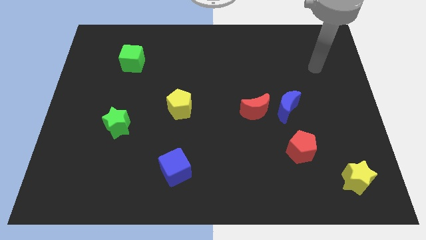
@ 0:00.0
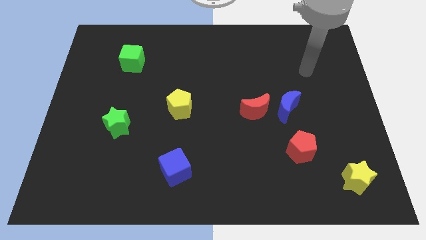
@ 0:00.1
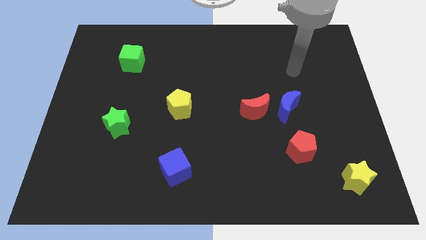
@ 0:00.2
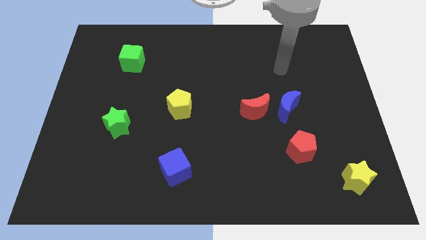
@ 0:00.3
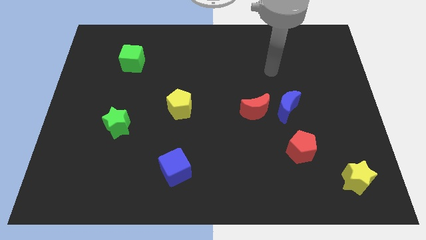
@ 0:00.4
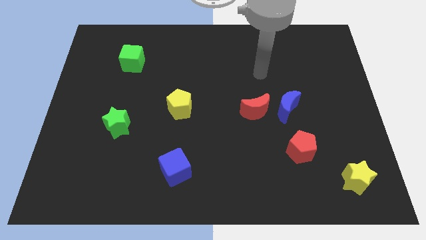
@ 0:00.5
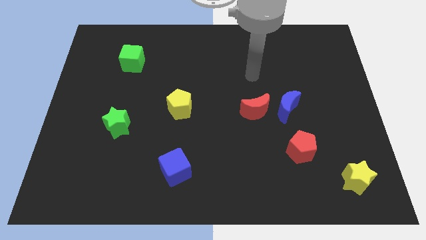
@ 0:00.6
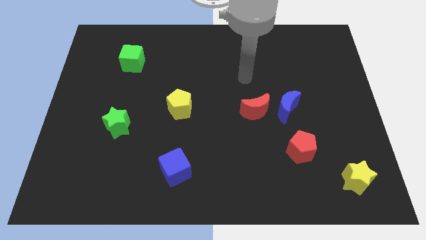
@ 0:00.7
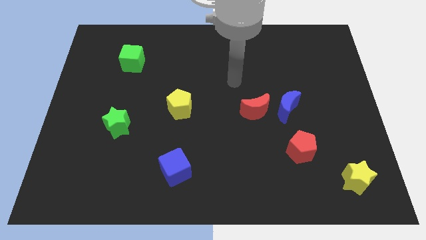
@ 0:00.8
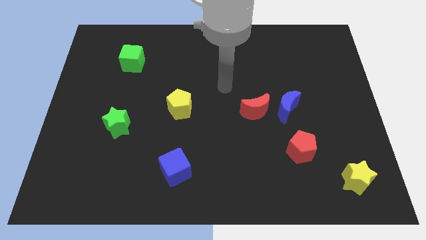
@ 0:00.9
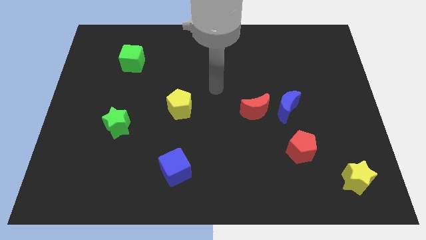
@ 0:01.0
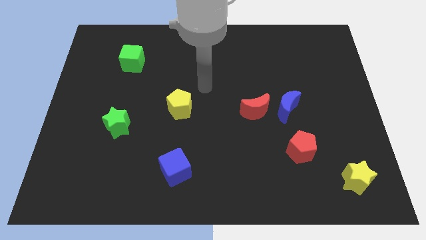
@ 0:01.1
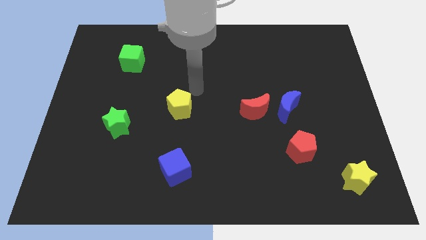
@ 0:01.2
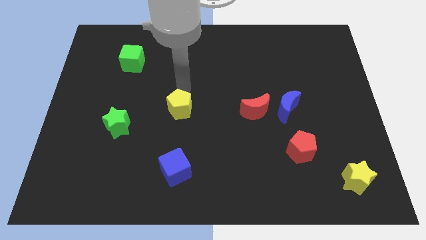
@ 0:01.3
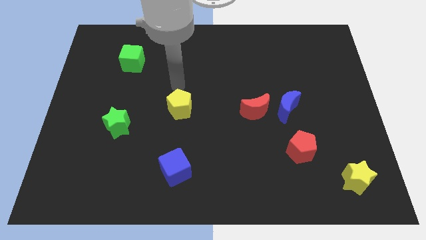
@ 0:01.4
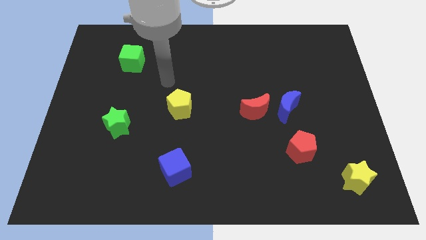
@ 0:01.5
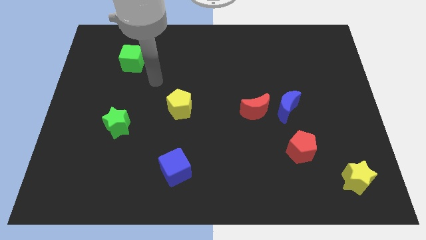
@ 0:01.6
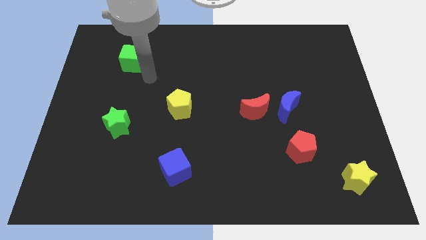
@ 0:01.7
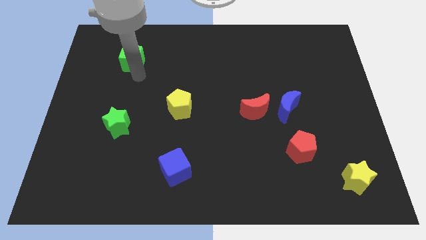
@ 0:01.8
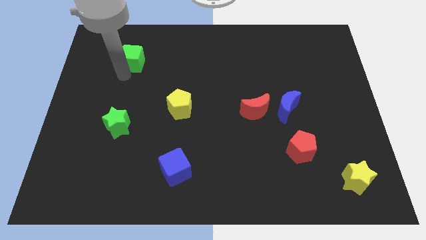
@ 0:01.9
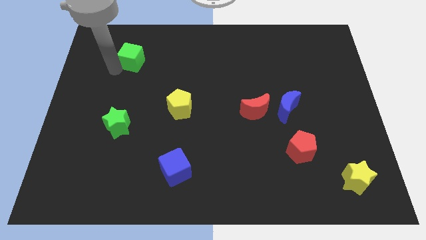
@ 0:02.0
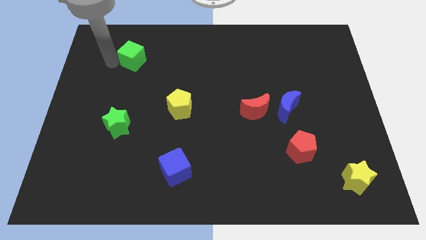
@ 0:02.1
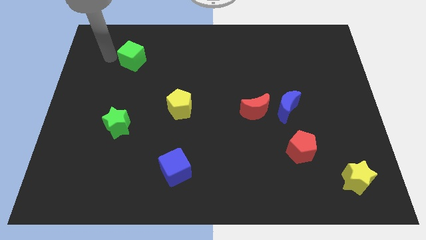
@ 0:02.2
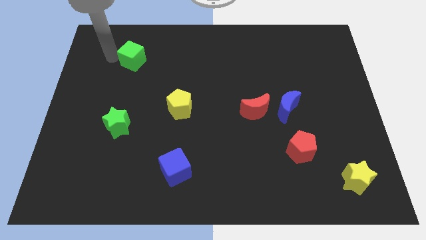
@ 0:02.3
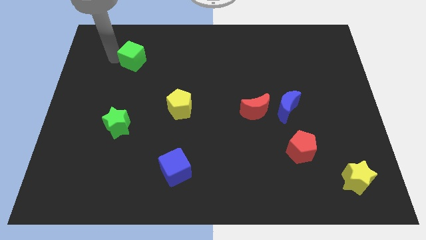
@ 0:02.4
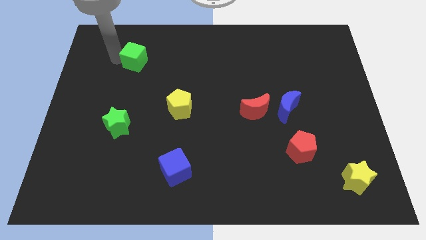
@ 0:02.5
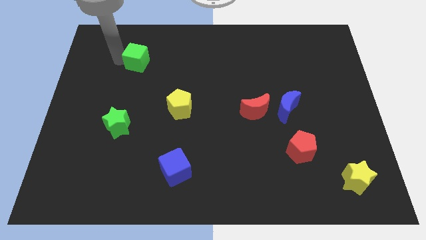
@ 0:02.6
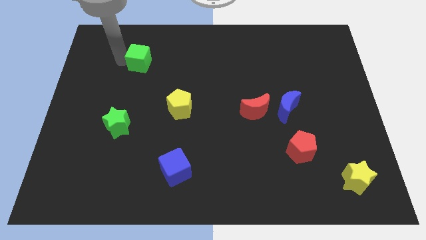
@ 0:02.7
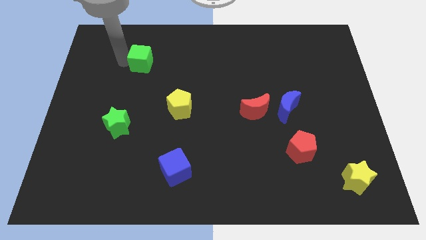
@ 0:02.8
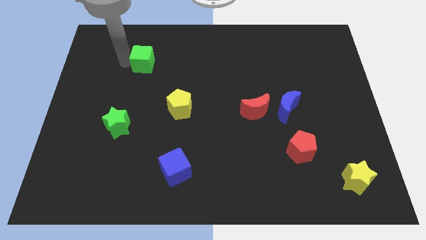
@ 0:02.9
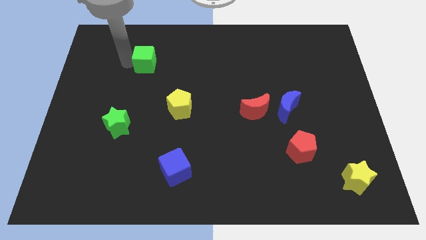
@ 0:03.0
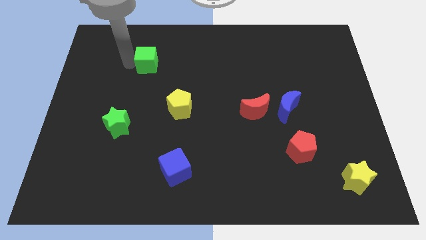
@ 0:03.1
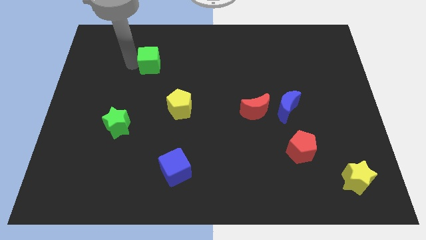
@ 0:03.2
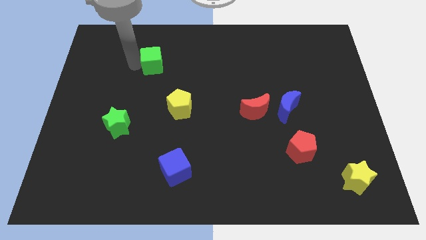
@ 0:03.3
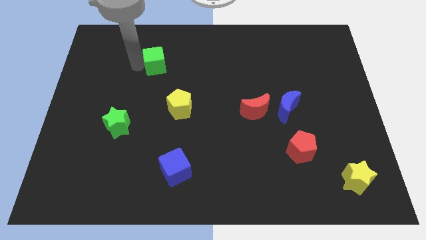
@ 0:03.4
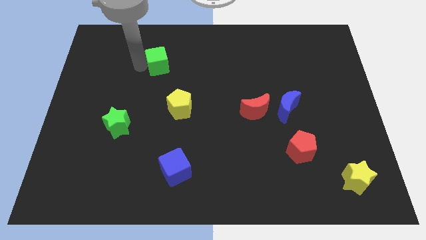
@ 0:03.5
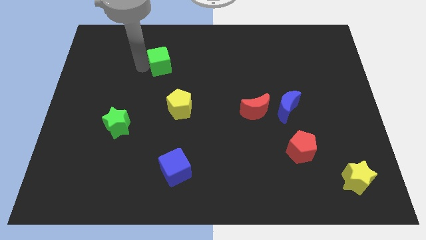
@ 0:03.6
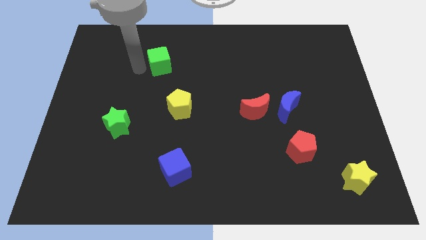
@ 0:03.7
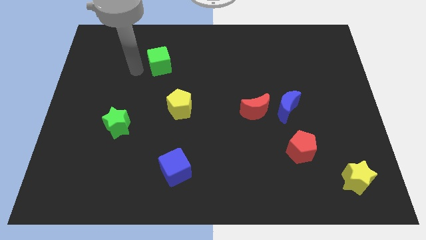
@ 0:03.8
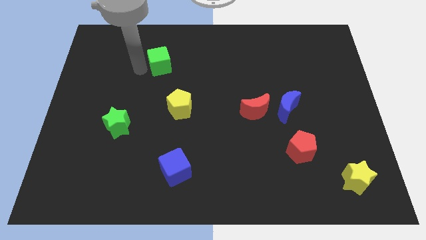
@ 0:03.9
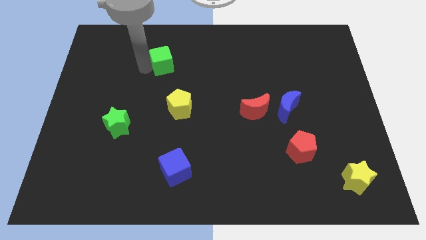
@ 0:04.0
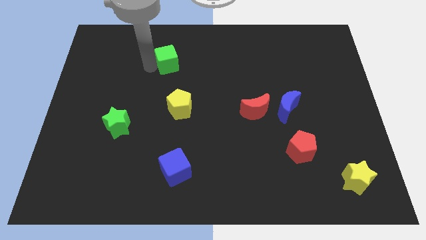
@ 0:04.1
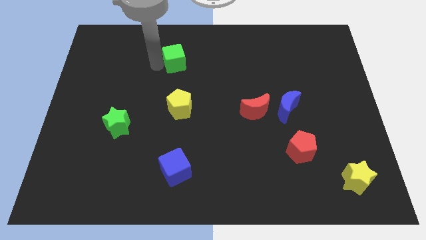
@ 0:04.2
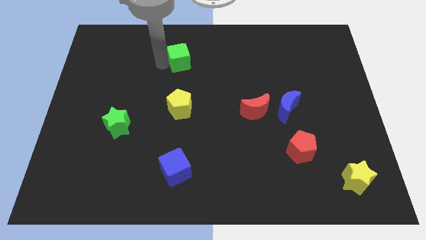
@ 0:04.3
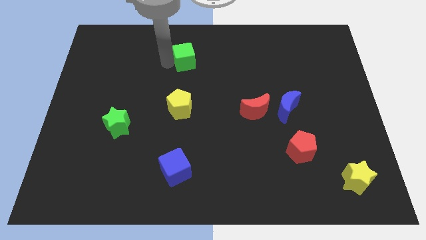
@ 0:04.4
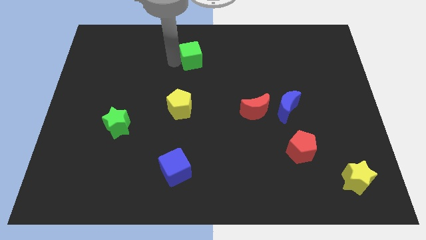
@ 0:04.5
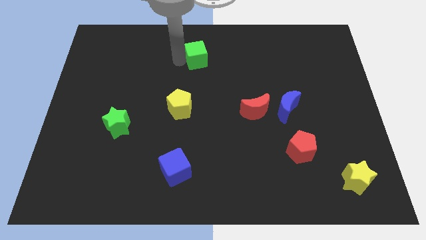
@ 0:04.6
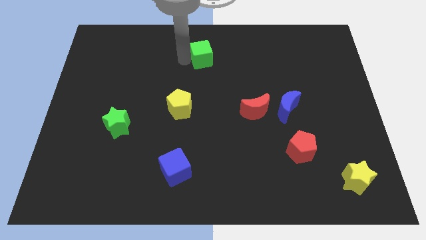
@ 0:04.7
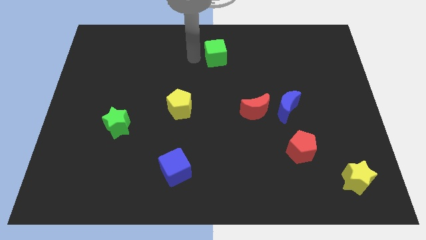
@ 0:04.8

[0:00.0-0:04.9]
move the green cube to the right

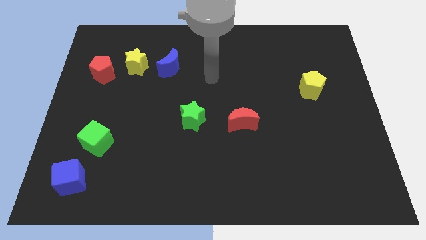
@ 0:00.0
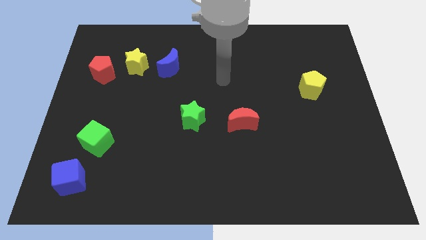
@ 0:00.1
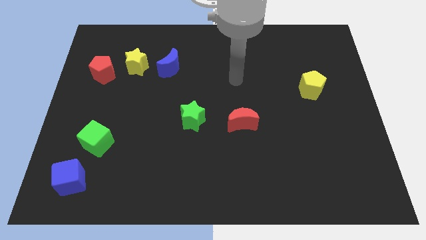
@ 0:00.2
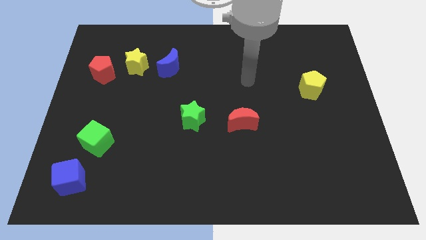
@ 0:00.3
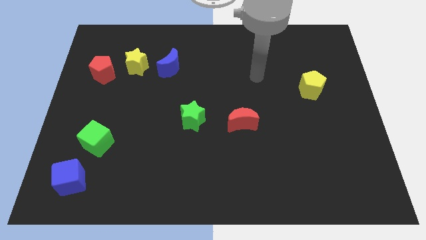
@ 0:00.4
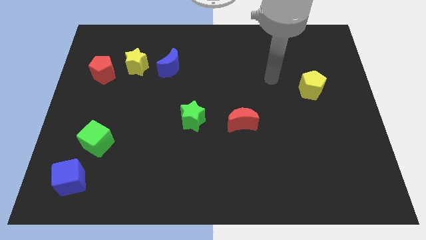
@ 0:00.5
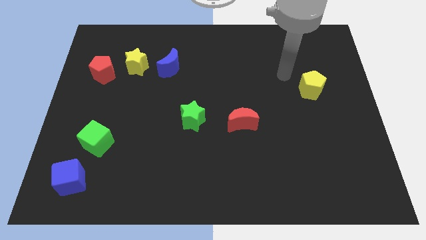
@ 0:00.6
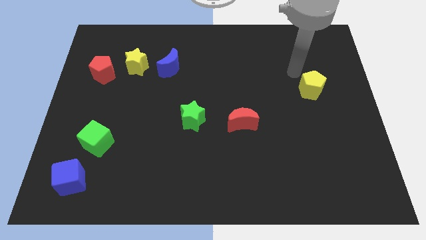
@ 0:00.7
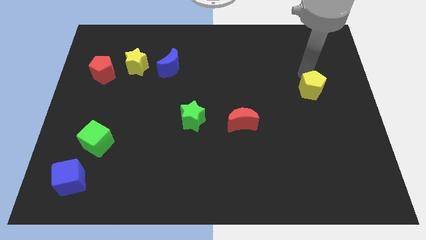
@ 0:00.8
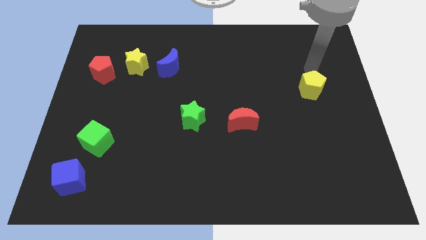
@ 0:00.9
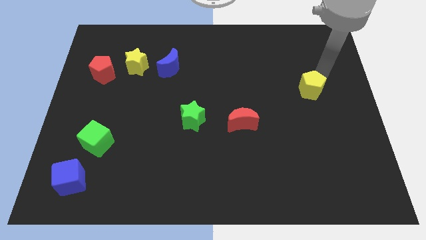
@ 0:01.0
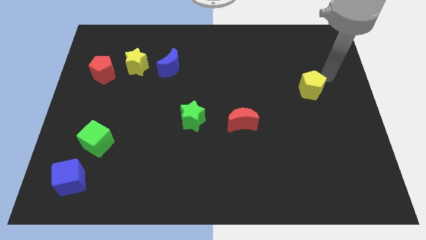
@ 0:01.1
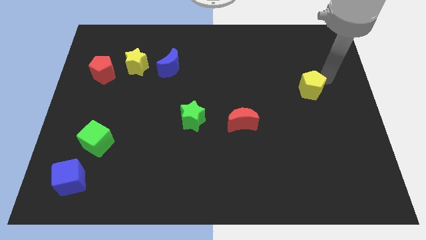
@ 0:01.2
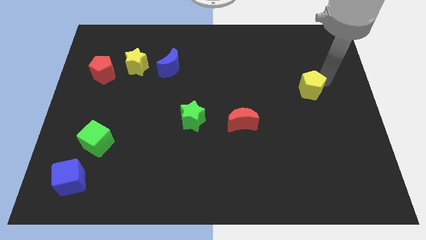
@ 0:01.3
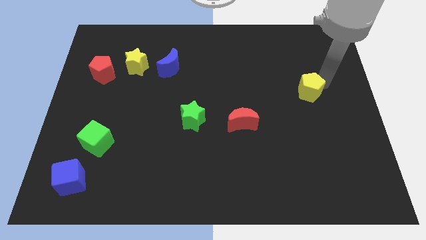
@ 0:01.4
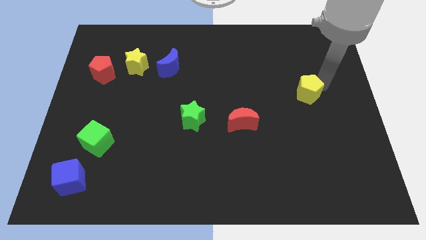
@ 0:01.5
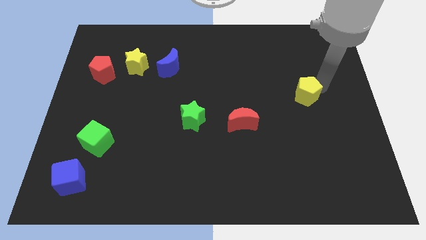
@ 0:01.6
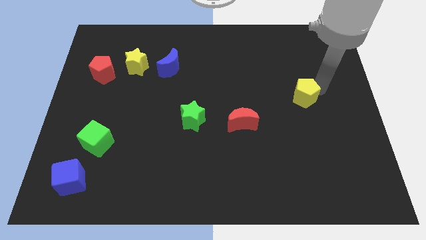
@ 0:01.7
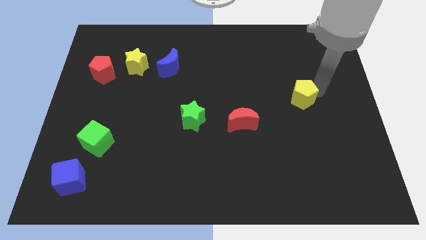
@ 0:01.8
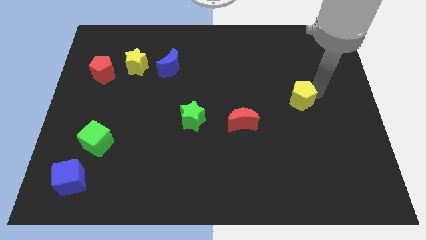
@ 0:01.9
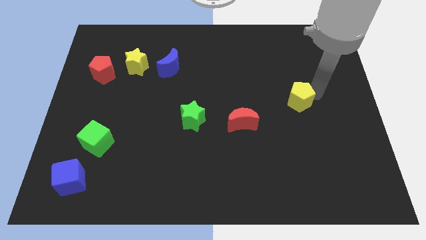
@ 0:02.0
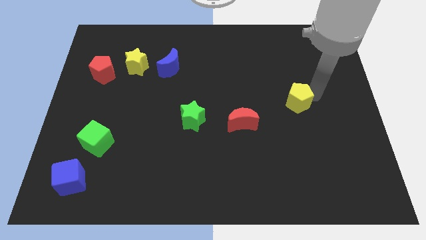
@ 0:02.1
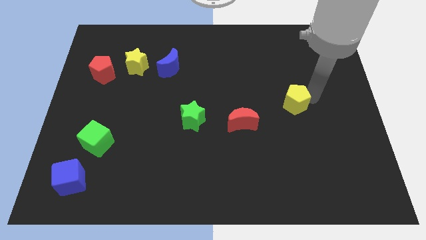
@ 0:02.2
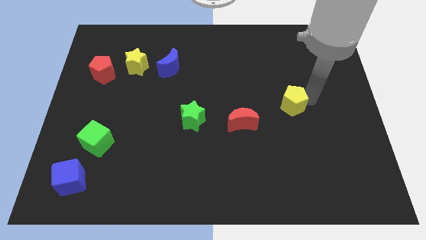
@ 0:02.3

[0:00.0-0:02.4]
slide the yellow pentagon slightly diagonally down and to the left

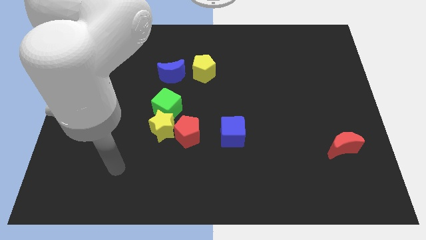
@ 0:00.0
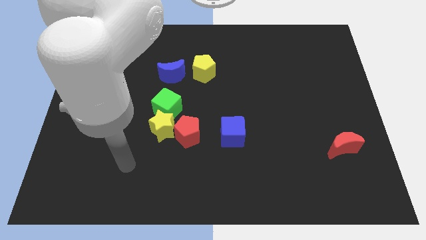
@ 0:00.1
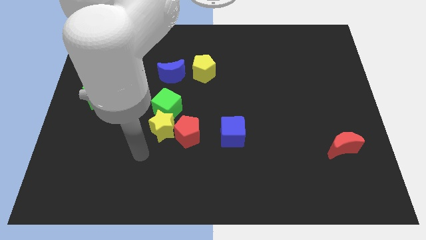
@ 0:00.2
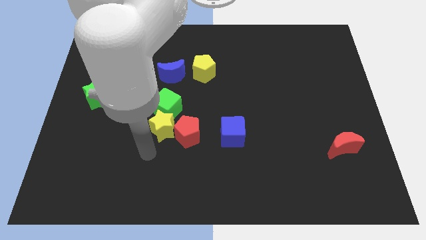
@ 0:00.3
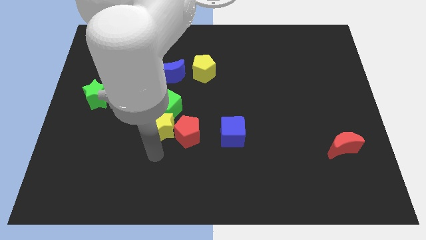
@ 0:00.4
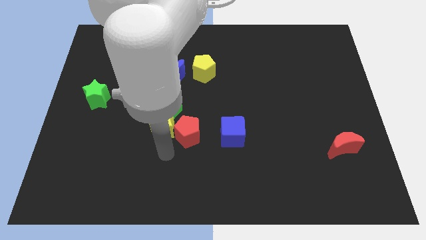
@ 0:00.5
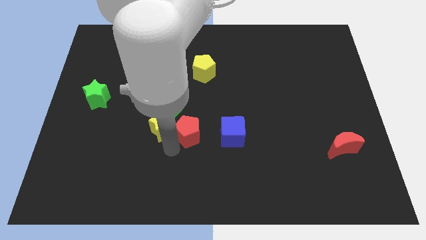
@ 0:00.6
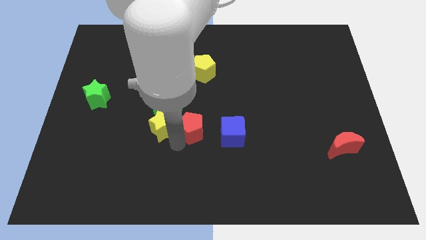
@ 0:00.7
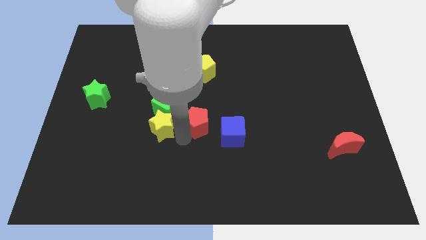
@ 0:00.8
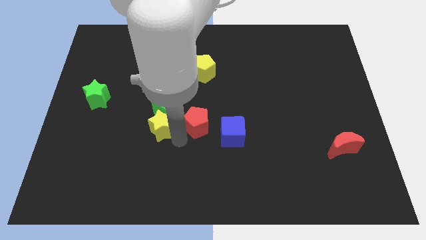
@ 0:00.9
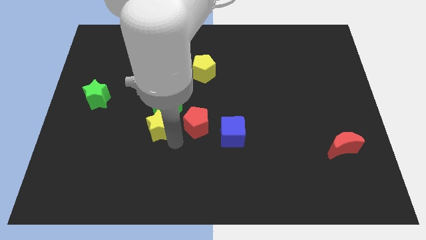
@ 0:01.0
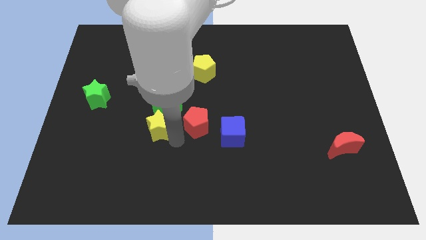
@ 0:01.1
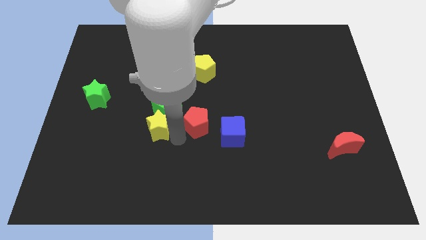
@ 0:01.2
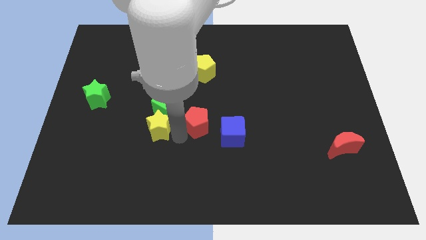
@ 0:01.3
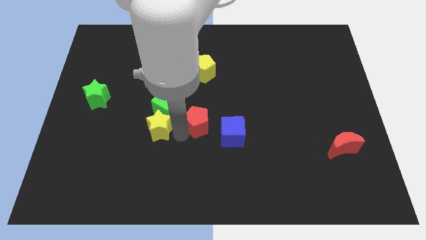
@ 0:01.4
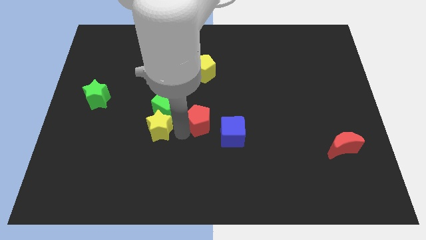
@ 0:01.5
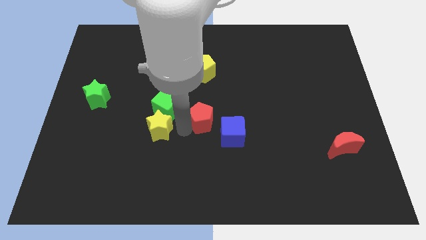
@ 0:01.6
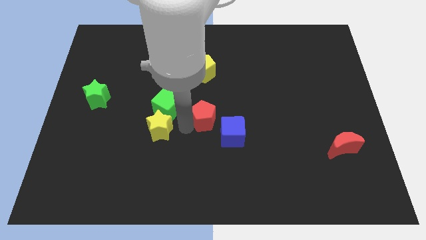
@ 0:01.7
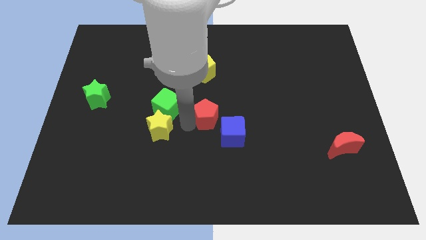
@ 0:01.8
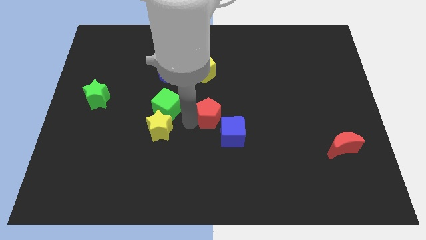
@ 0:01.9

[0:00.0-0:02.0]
slightly push the red pentagon upwards and then to the right
